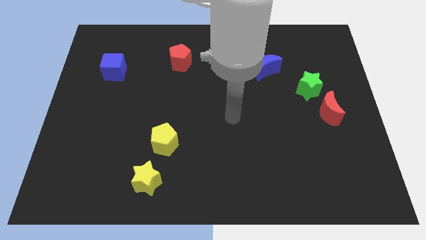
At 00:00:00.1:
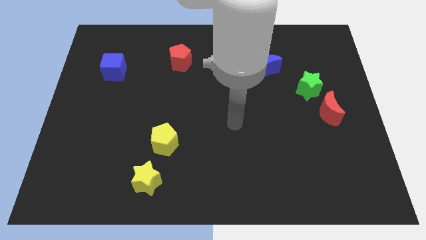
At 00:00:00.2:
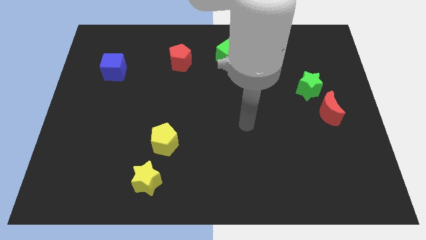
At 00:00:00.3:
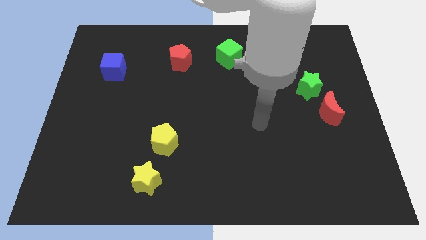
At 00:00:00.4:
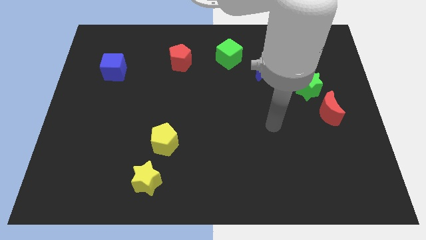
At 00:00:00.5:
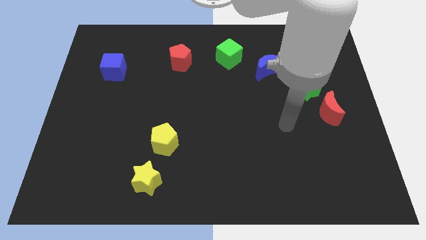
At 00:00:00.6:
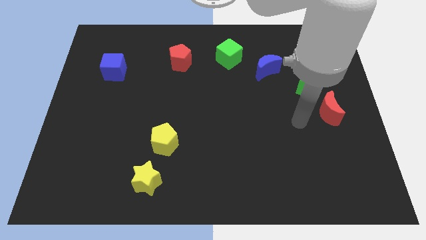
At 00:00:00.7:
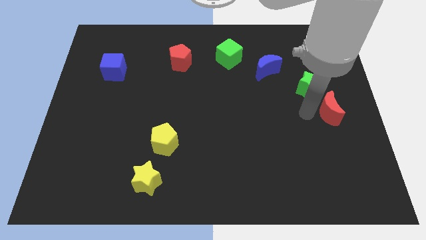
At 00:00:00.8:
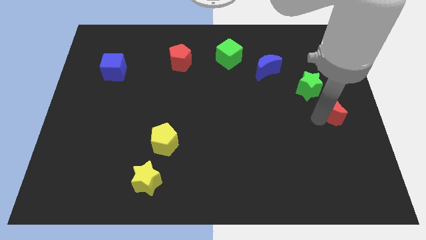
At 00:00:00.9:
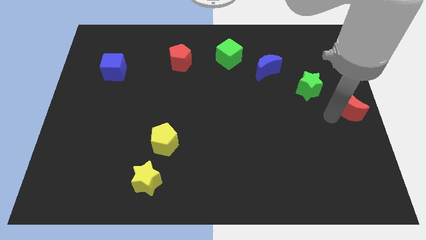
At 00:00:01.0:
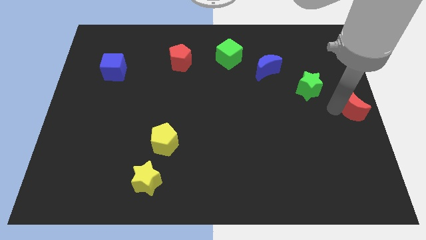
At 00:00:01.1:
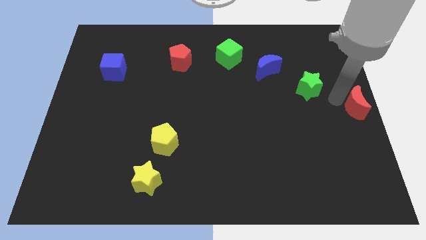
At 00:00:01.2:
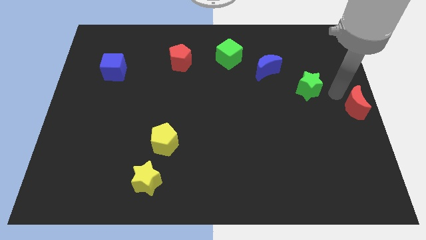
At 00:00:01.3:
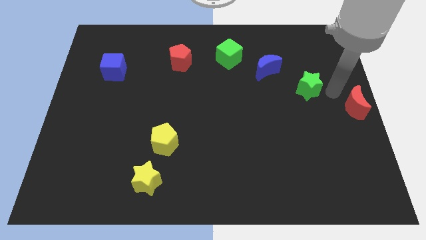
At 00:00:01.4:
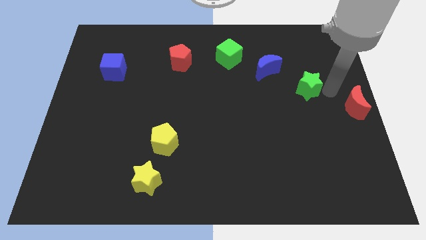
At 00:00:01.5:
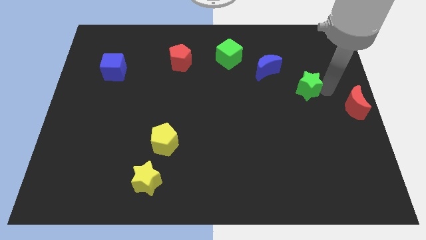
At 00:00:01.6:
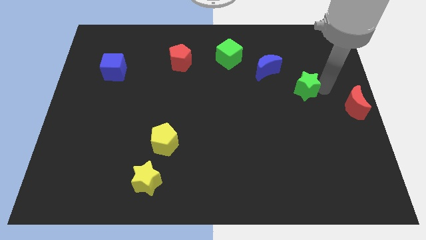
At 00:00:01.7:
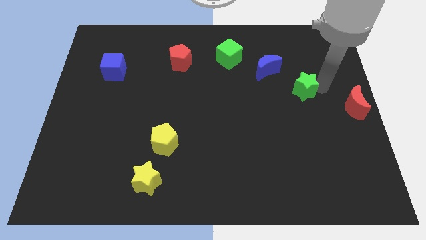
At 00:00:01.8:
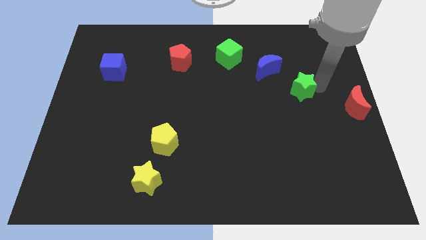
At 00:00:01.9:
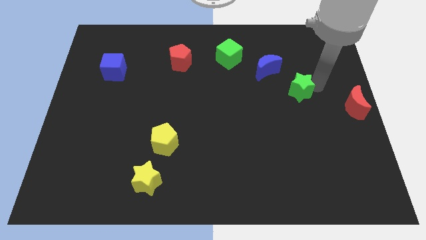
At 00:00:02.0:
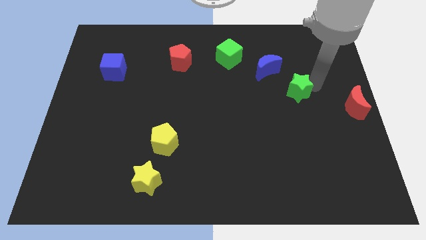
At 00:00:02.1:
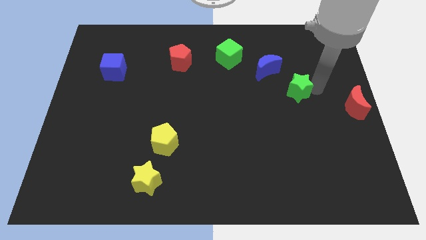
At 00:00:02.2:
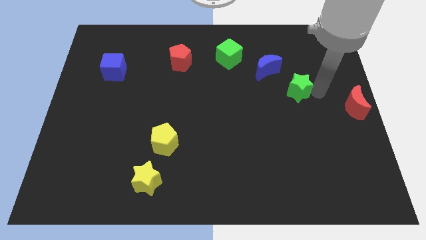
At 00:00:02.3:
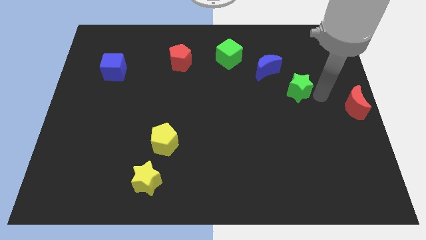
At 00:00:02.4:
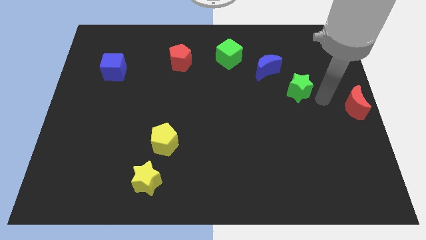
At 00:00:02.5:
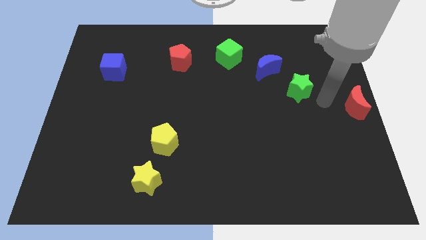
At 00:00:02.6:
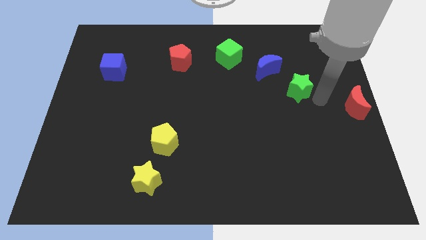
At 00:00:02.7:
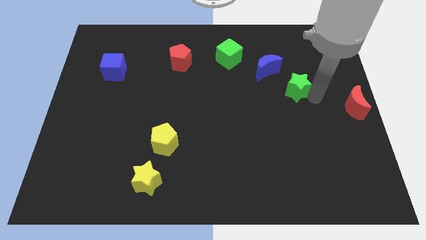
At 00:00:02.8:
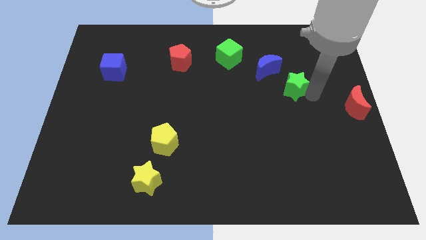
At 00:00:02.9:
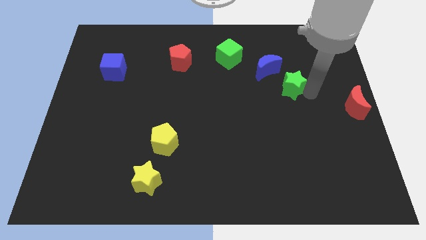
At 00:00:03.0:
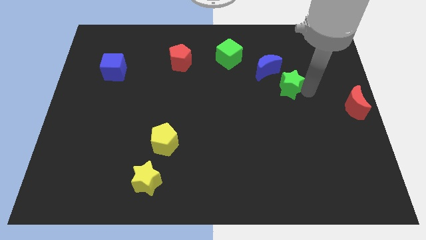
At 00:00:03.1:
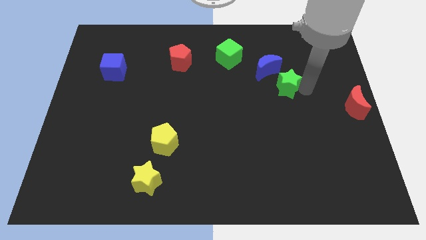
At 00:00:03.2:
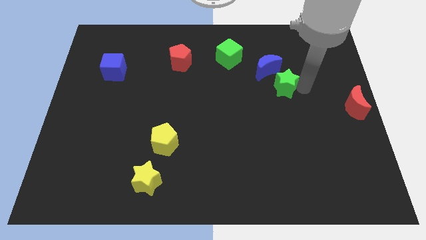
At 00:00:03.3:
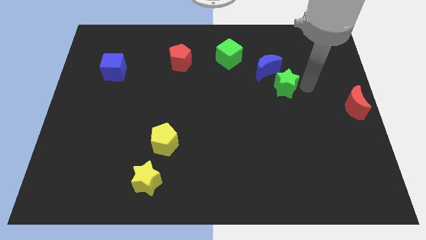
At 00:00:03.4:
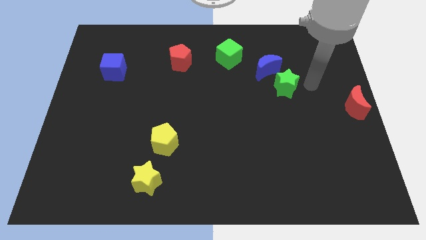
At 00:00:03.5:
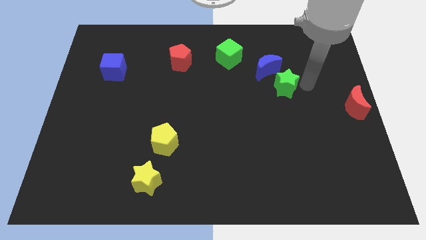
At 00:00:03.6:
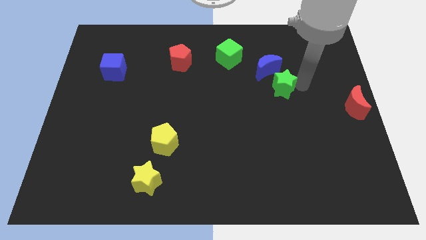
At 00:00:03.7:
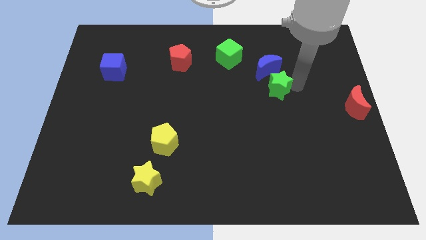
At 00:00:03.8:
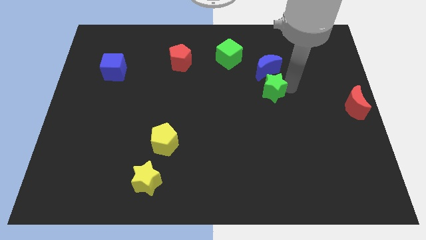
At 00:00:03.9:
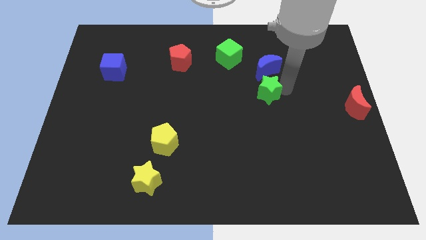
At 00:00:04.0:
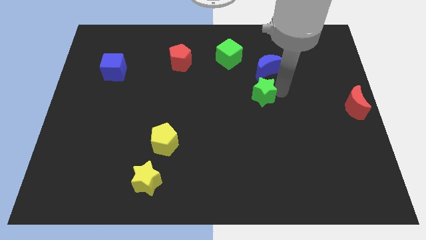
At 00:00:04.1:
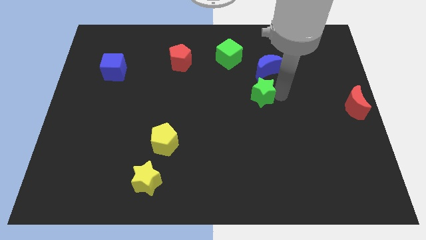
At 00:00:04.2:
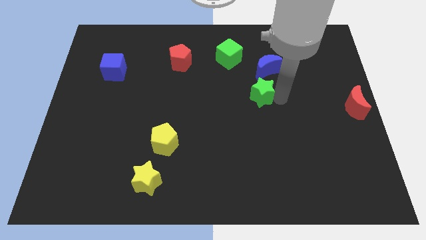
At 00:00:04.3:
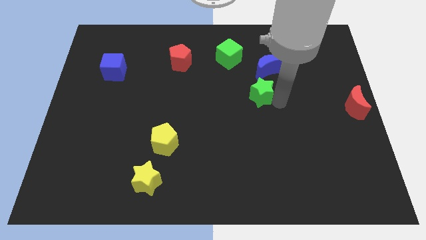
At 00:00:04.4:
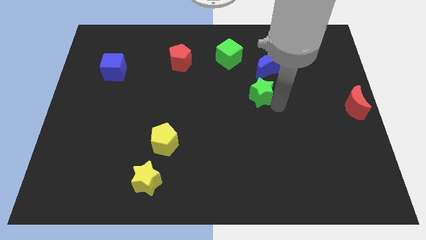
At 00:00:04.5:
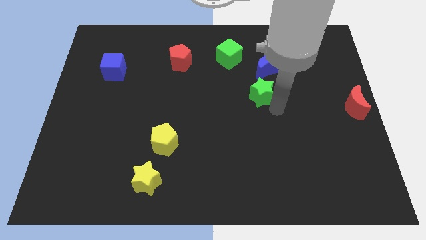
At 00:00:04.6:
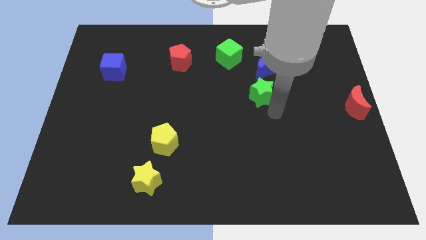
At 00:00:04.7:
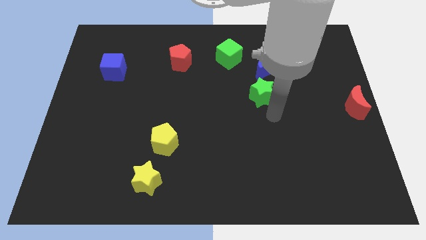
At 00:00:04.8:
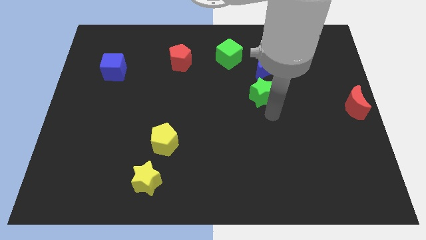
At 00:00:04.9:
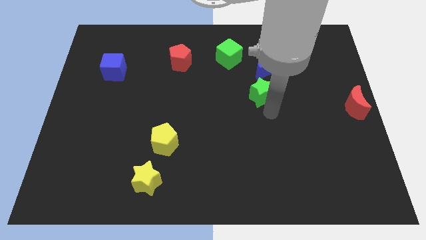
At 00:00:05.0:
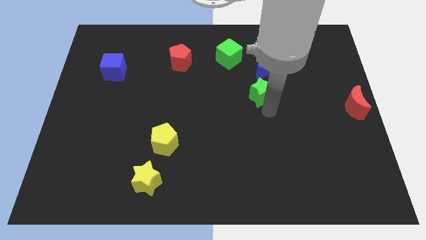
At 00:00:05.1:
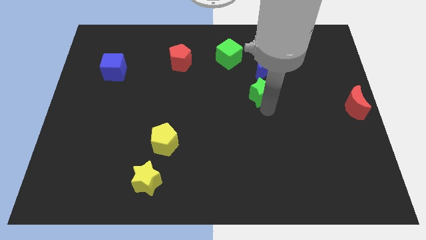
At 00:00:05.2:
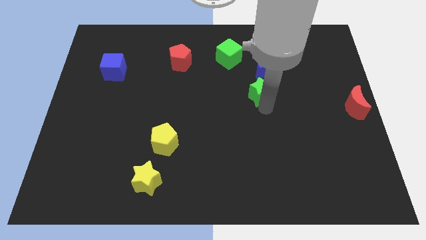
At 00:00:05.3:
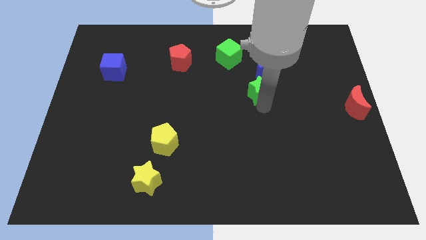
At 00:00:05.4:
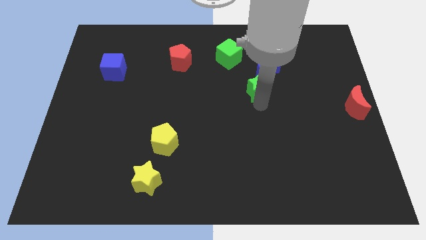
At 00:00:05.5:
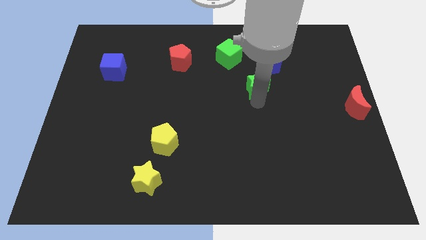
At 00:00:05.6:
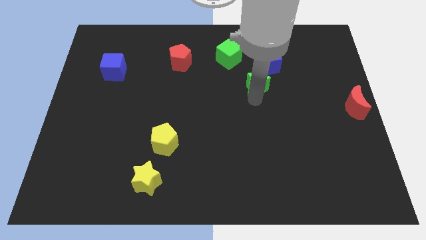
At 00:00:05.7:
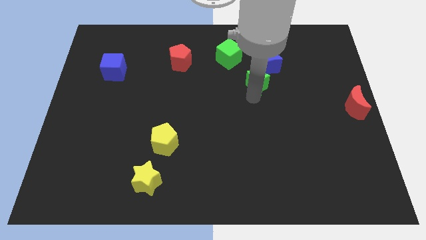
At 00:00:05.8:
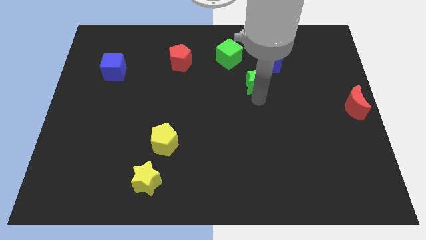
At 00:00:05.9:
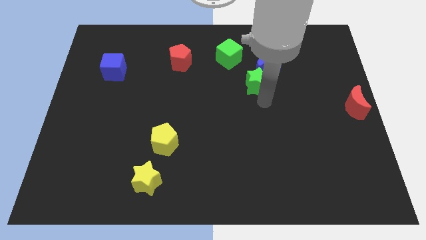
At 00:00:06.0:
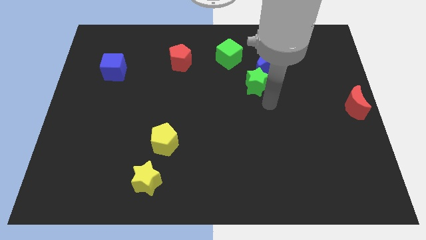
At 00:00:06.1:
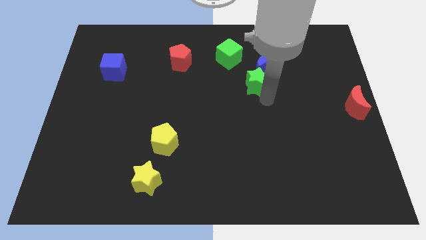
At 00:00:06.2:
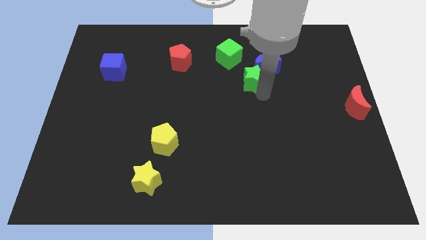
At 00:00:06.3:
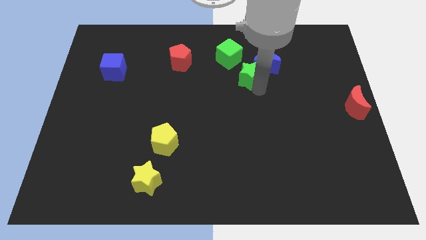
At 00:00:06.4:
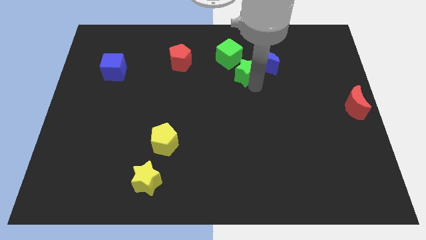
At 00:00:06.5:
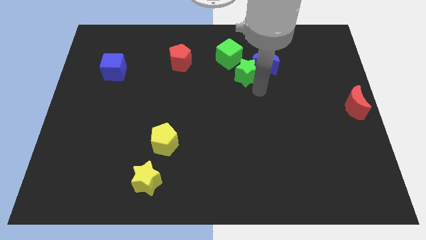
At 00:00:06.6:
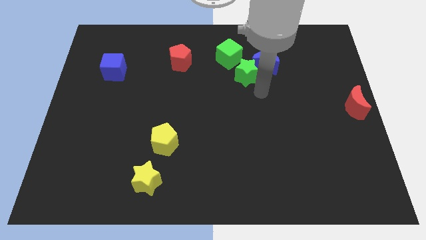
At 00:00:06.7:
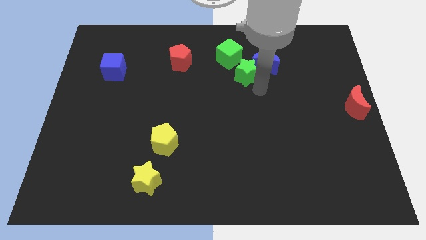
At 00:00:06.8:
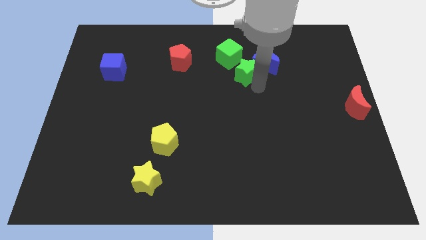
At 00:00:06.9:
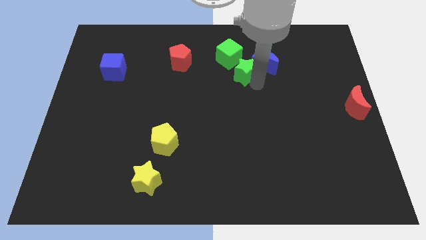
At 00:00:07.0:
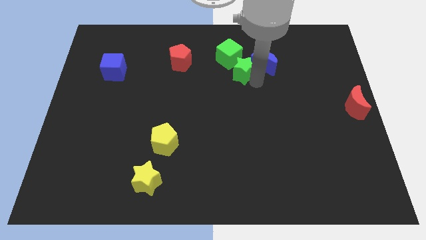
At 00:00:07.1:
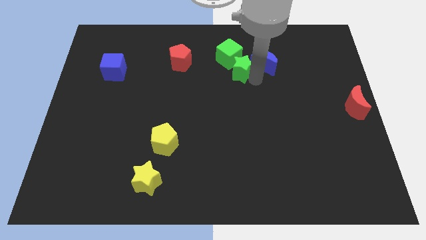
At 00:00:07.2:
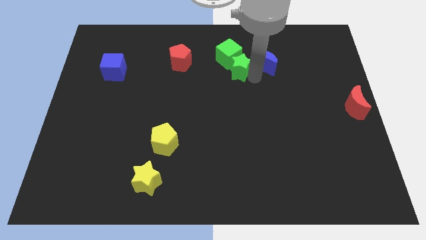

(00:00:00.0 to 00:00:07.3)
put the green star next to the green cube
